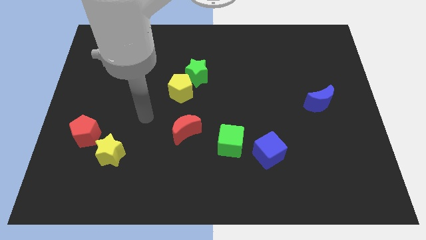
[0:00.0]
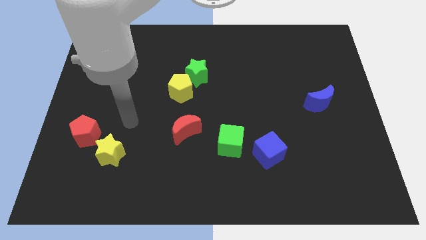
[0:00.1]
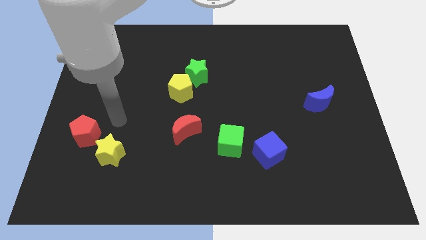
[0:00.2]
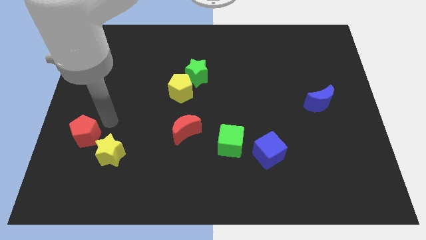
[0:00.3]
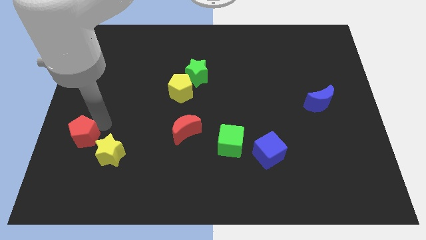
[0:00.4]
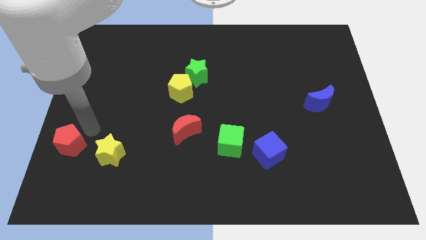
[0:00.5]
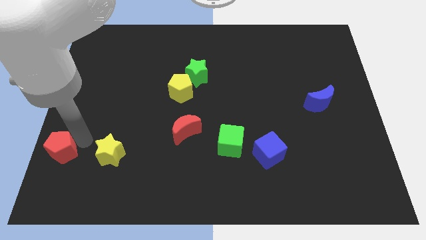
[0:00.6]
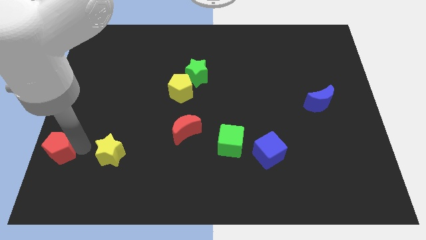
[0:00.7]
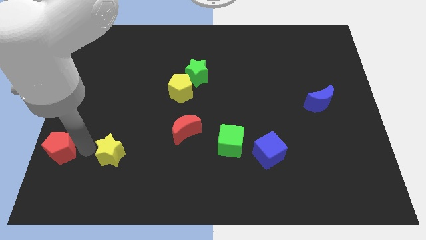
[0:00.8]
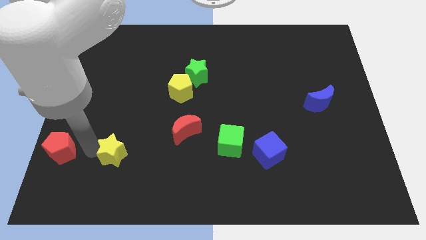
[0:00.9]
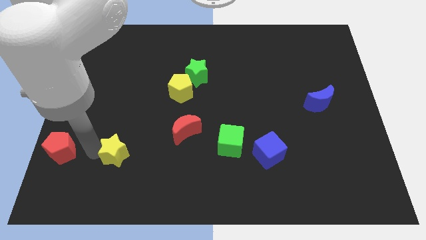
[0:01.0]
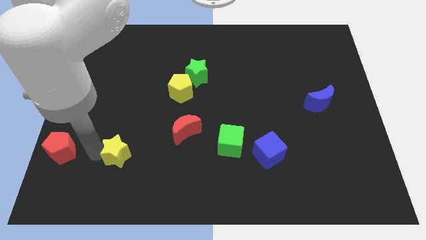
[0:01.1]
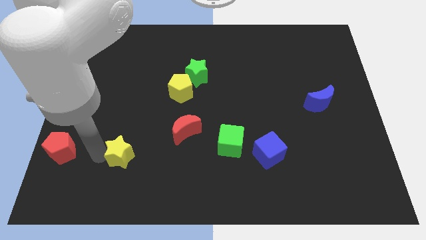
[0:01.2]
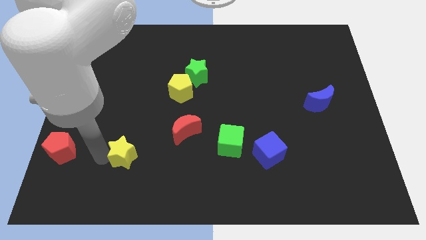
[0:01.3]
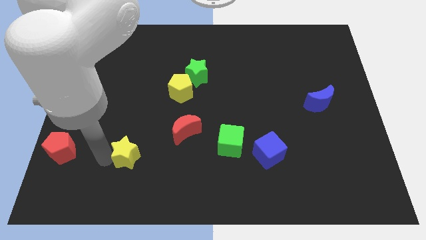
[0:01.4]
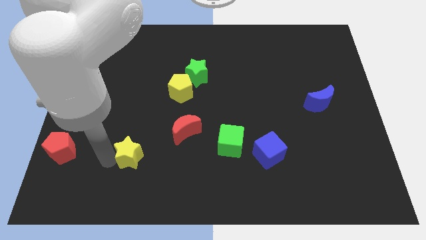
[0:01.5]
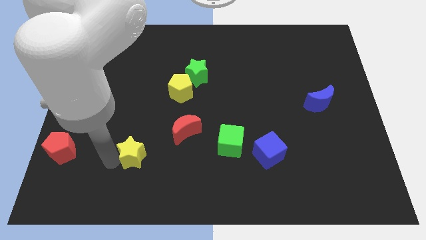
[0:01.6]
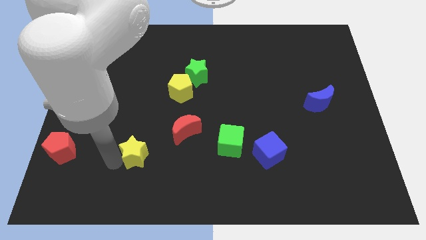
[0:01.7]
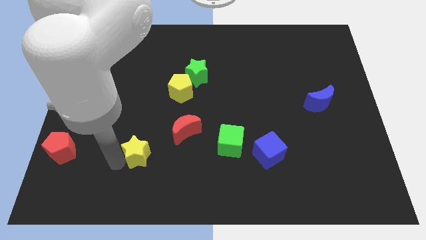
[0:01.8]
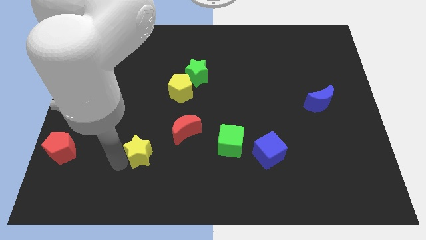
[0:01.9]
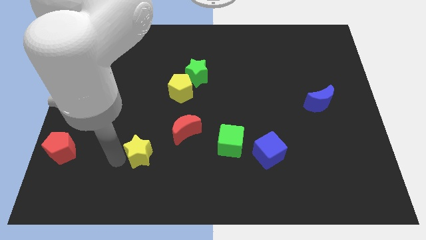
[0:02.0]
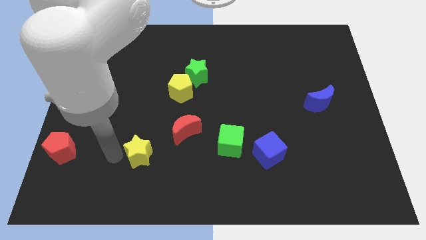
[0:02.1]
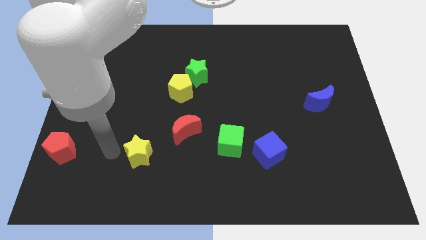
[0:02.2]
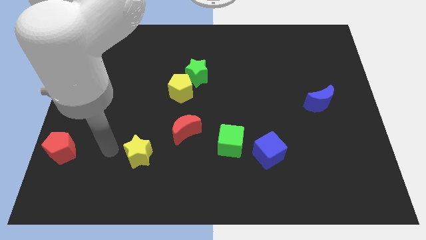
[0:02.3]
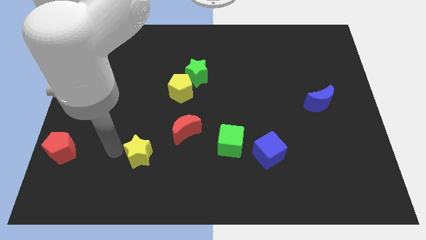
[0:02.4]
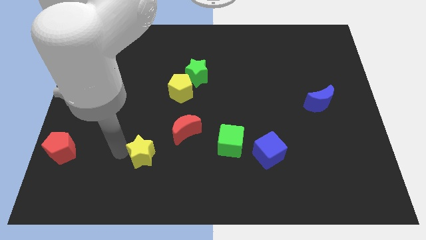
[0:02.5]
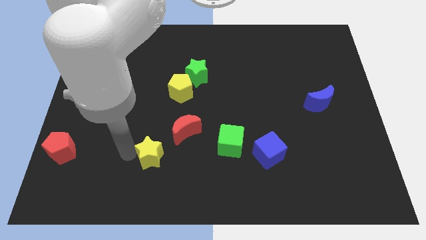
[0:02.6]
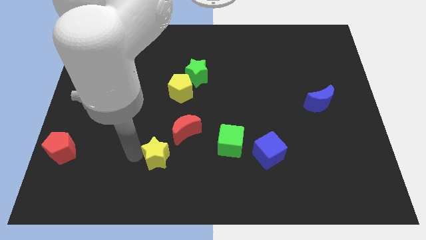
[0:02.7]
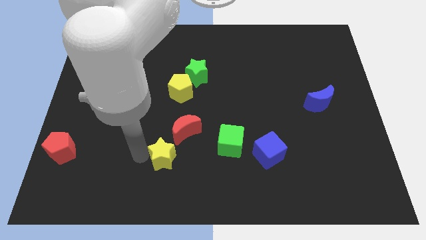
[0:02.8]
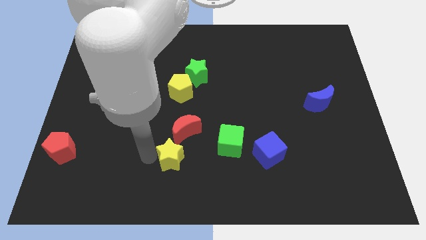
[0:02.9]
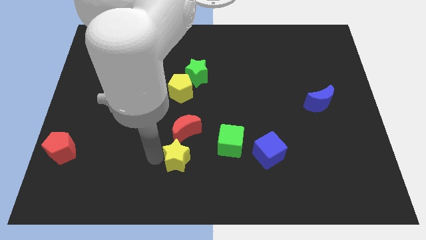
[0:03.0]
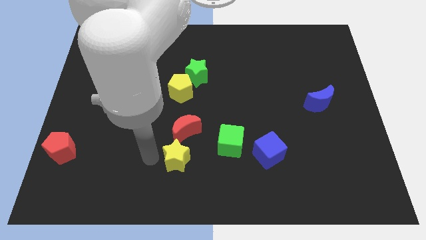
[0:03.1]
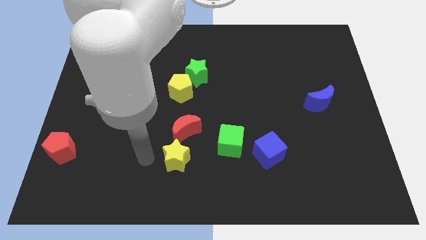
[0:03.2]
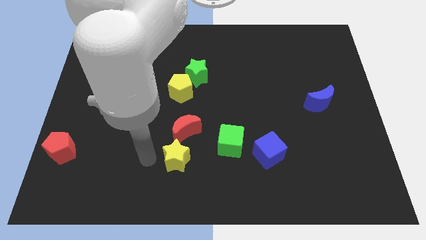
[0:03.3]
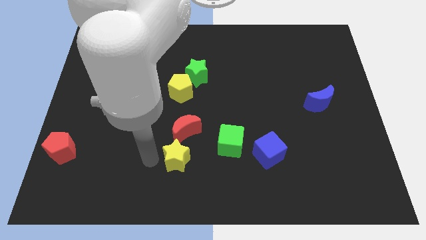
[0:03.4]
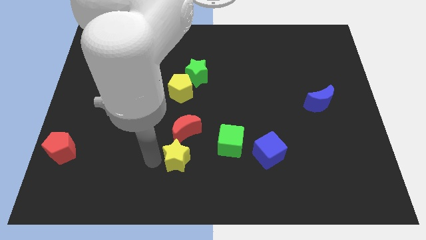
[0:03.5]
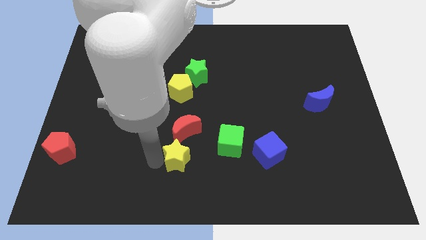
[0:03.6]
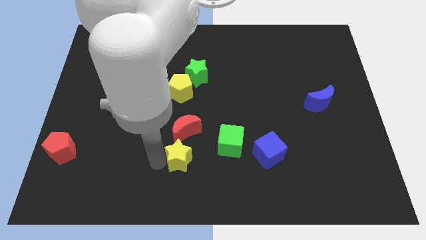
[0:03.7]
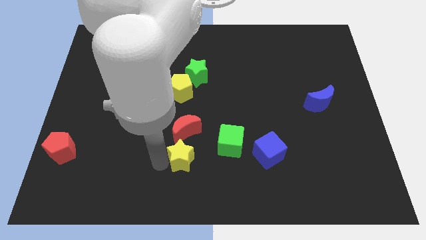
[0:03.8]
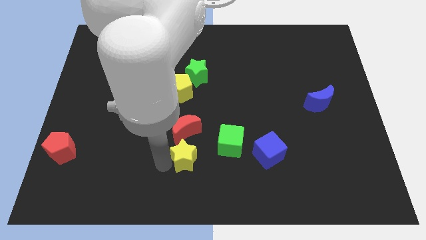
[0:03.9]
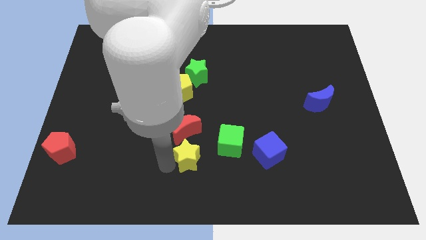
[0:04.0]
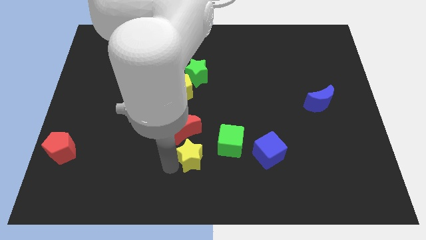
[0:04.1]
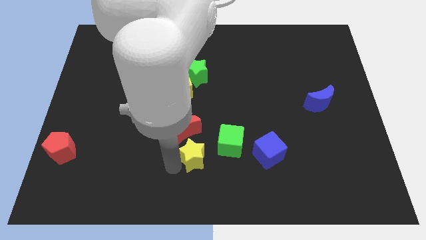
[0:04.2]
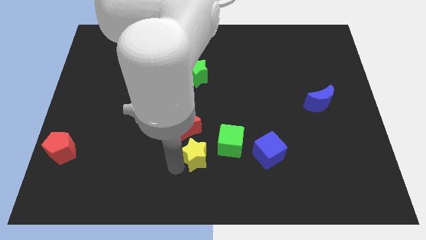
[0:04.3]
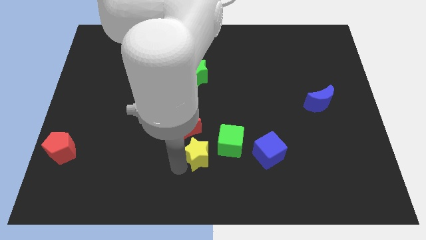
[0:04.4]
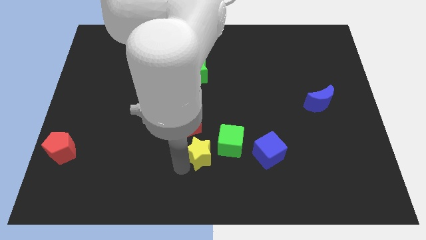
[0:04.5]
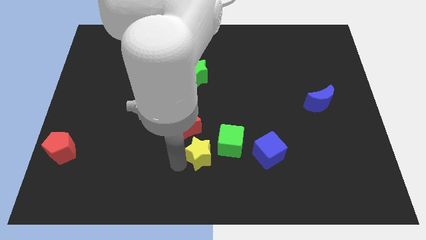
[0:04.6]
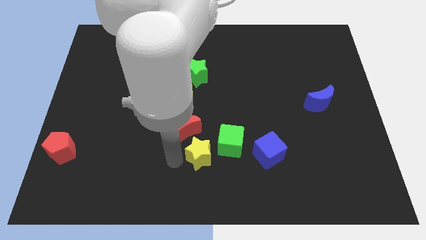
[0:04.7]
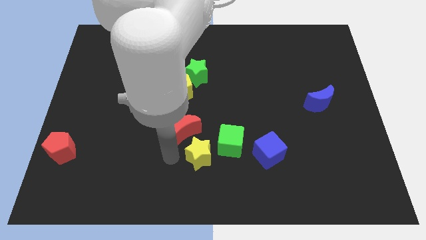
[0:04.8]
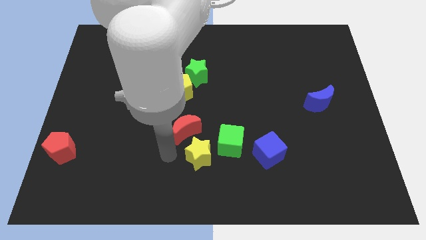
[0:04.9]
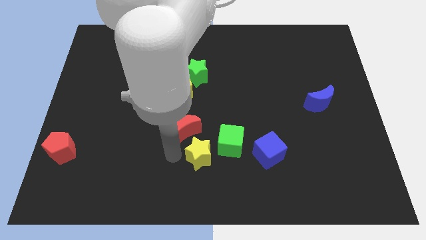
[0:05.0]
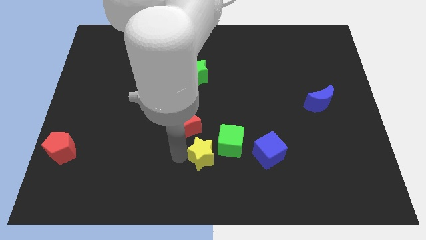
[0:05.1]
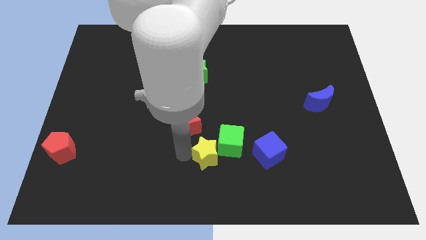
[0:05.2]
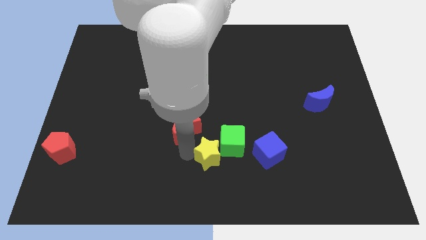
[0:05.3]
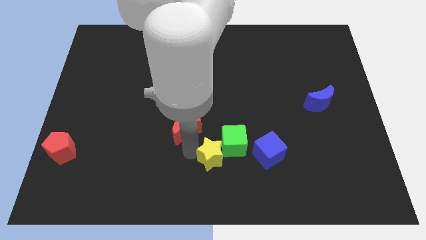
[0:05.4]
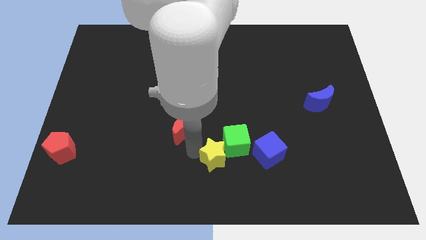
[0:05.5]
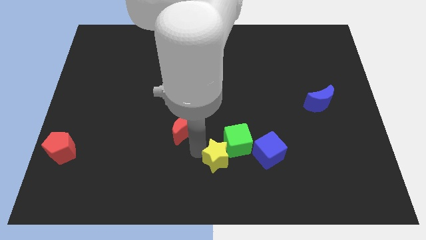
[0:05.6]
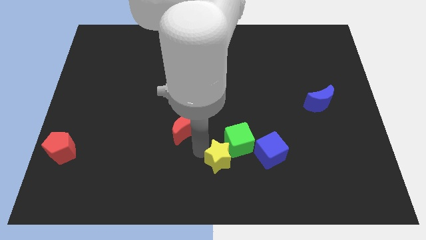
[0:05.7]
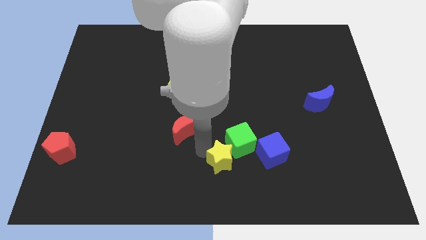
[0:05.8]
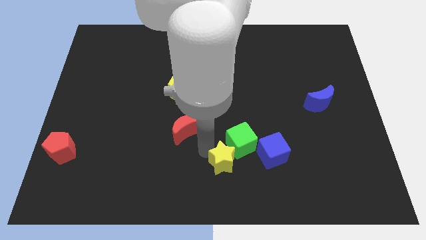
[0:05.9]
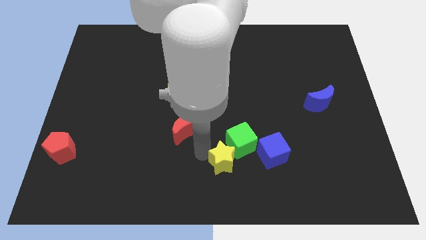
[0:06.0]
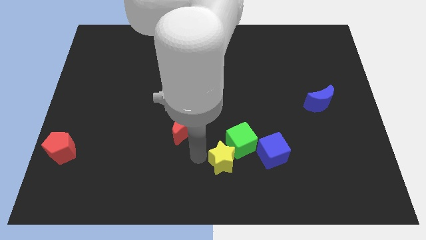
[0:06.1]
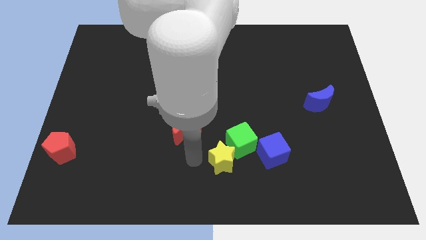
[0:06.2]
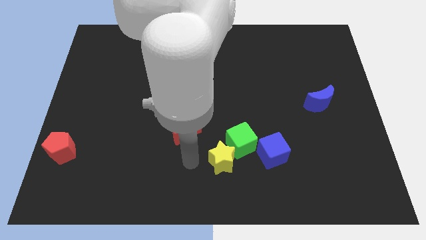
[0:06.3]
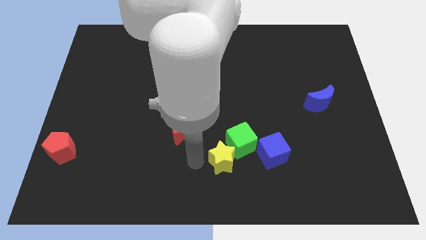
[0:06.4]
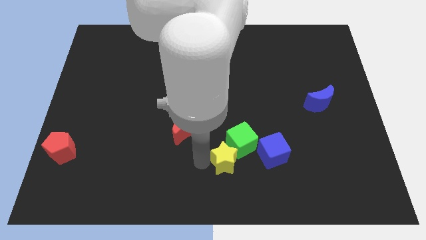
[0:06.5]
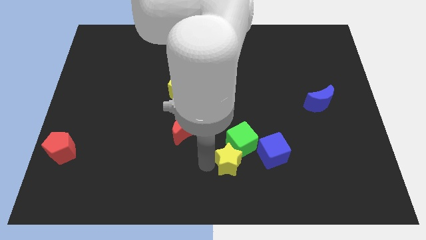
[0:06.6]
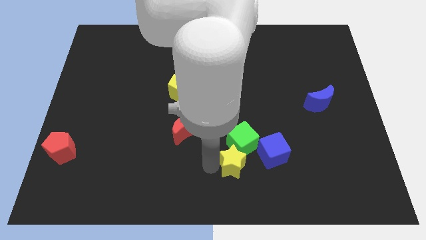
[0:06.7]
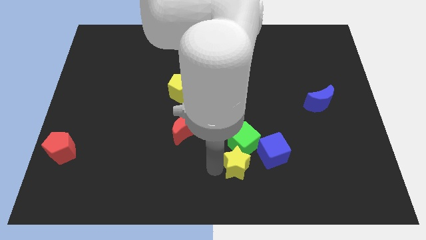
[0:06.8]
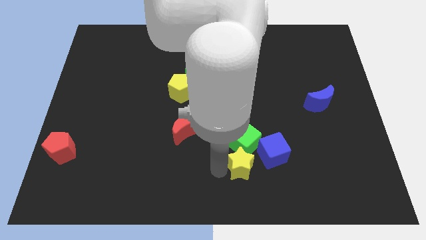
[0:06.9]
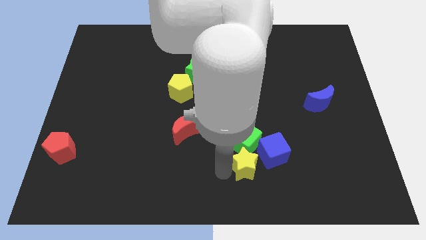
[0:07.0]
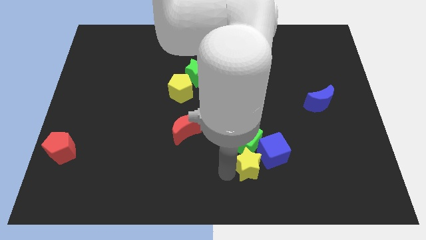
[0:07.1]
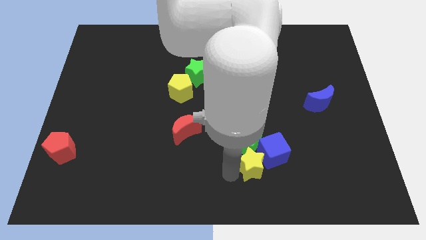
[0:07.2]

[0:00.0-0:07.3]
move the yellow star next to the blue cube

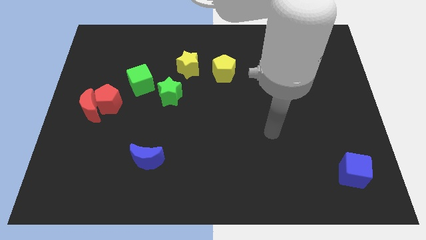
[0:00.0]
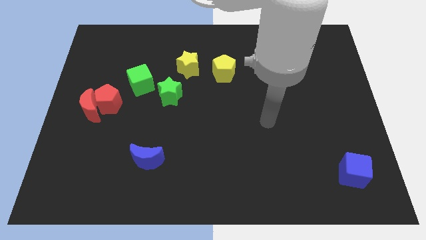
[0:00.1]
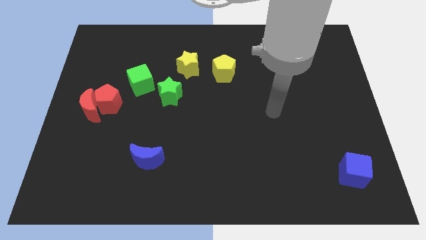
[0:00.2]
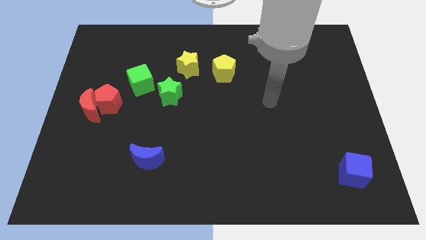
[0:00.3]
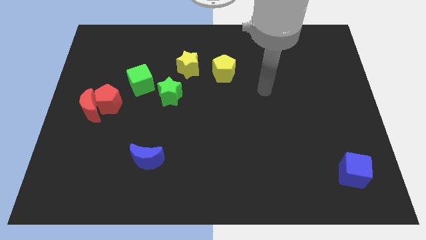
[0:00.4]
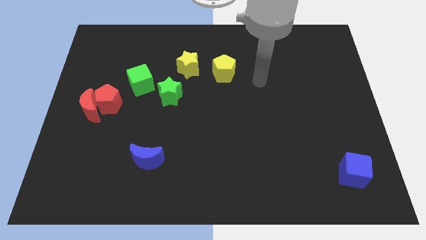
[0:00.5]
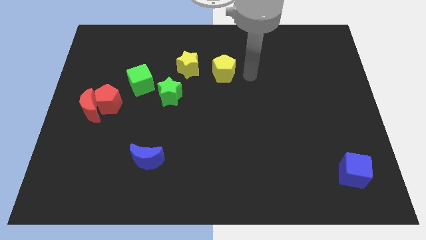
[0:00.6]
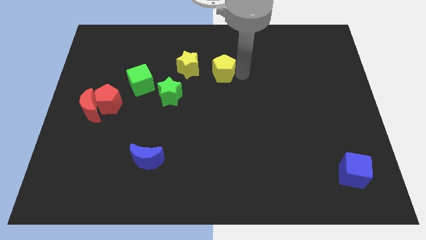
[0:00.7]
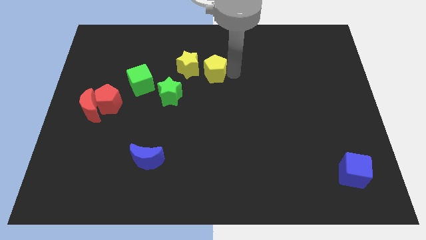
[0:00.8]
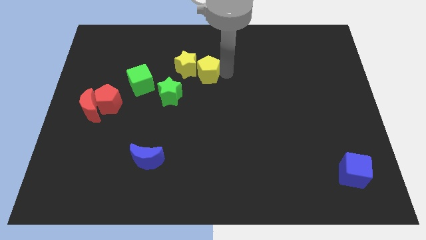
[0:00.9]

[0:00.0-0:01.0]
push the yellow pentagon close to the yellow star
